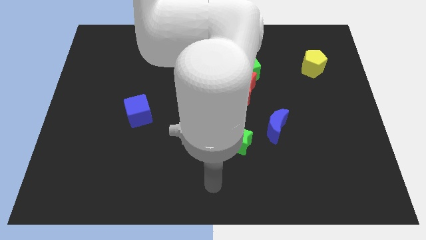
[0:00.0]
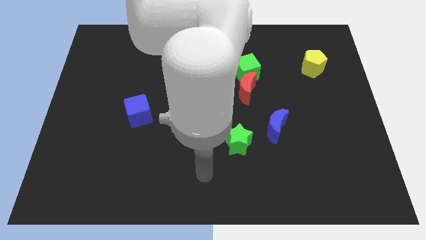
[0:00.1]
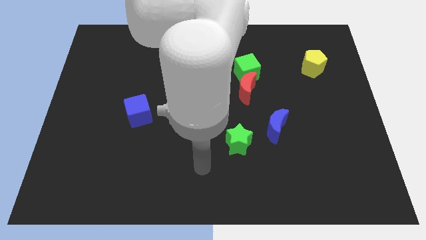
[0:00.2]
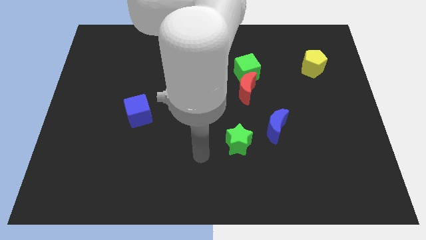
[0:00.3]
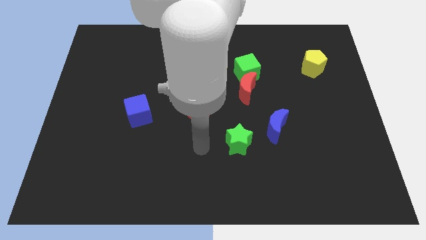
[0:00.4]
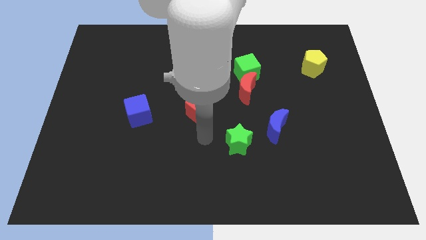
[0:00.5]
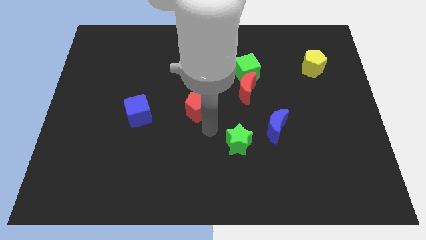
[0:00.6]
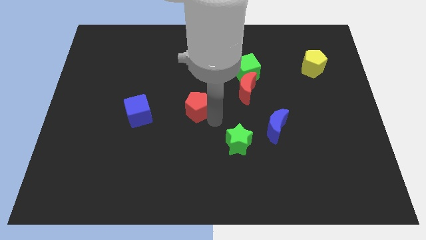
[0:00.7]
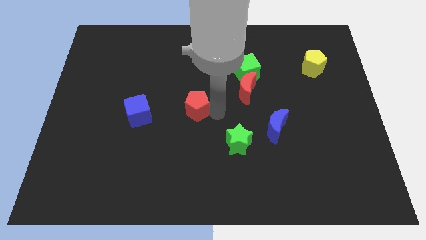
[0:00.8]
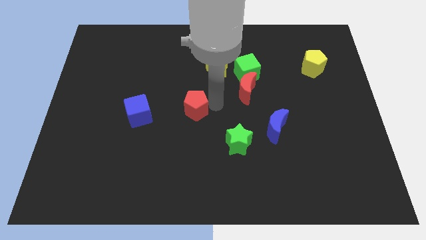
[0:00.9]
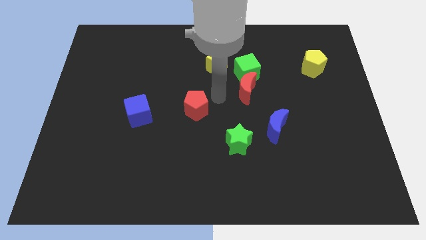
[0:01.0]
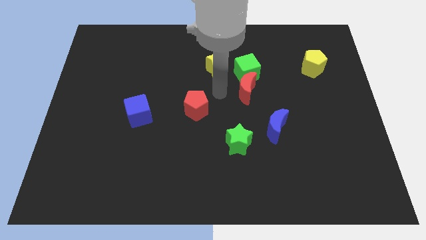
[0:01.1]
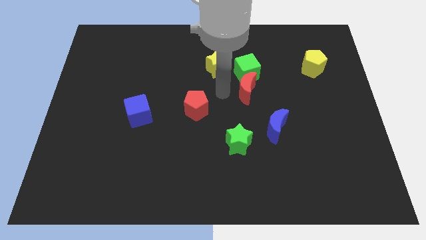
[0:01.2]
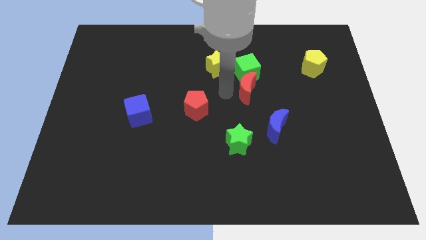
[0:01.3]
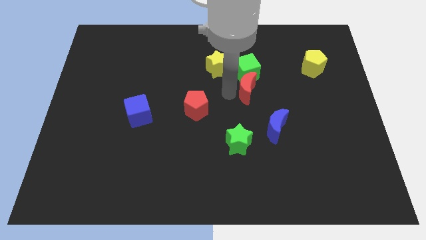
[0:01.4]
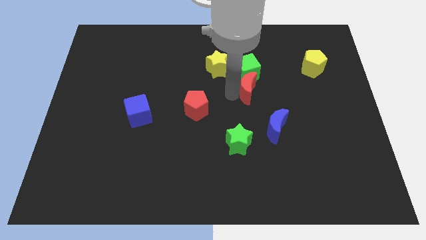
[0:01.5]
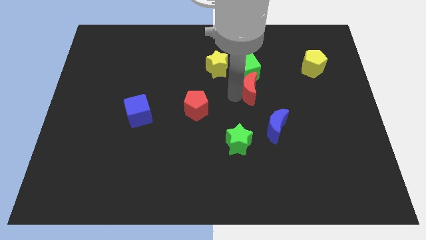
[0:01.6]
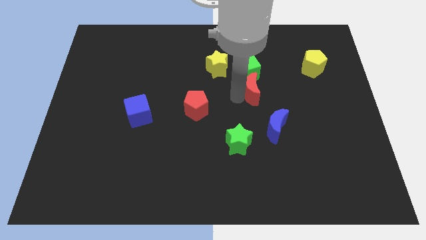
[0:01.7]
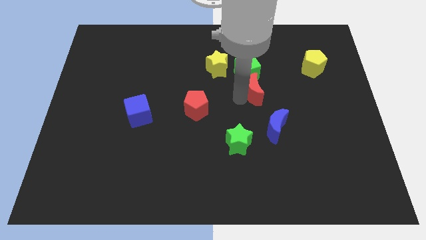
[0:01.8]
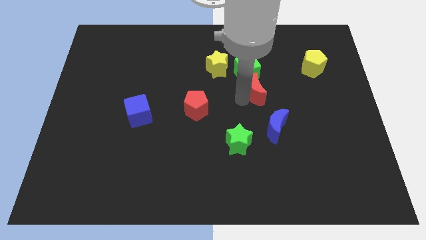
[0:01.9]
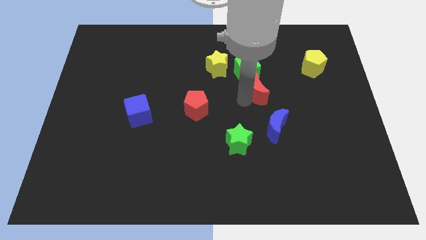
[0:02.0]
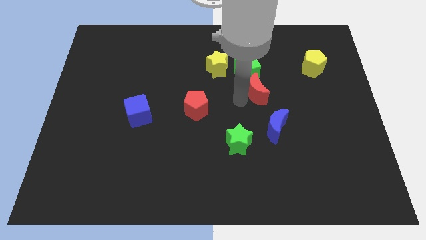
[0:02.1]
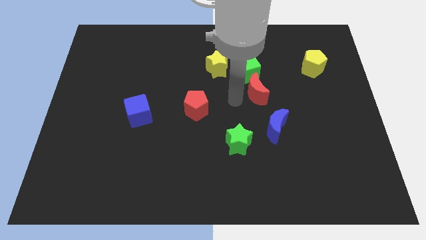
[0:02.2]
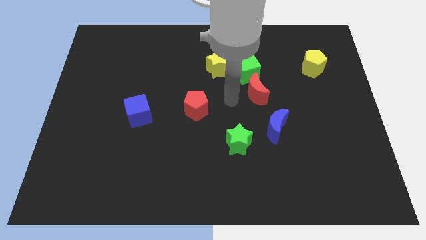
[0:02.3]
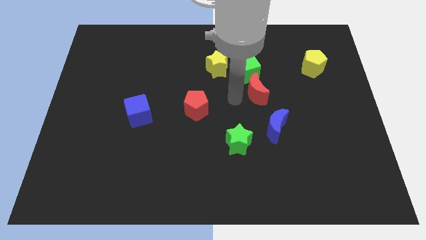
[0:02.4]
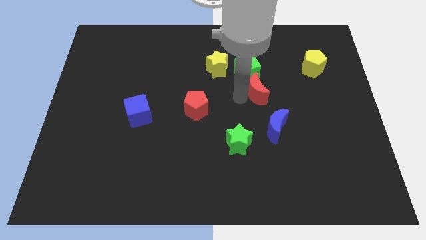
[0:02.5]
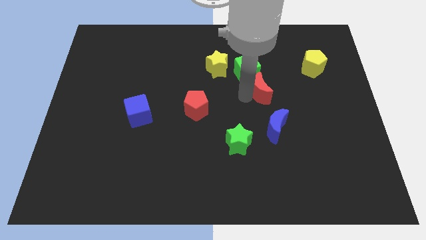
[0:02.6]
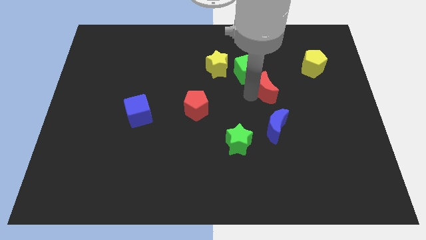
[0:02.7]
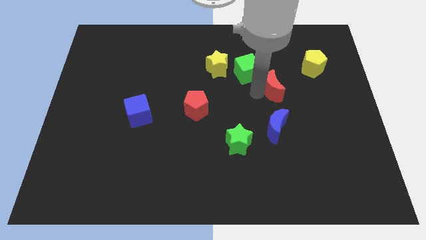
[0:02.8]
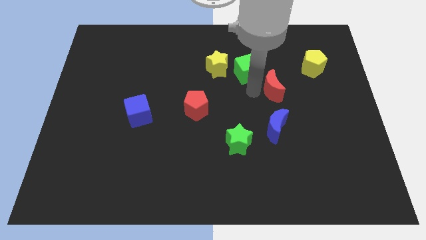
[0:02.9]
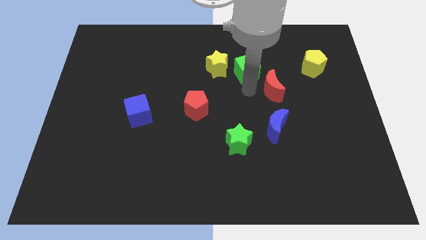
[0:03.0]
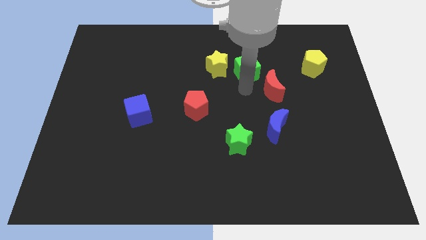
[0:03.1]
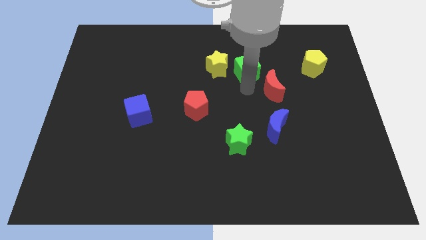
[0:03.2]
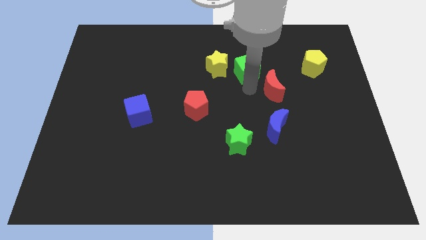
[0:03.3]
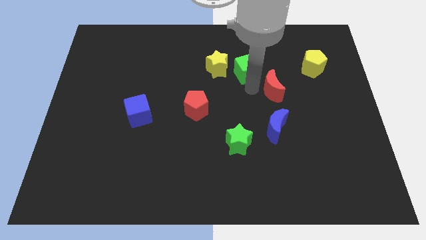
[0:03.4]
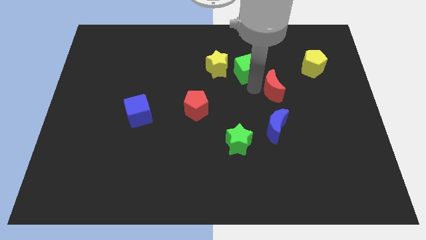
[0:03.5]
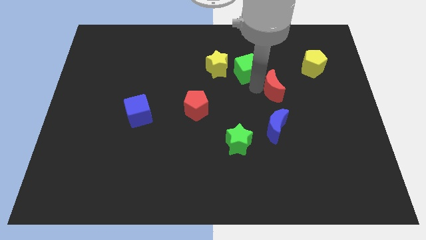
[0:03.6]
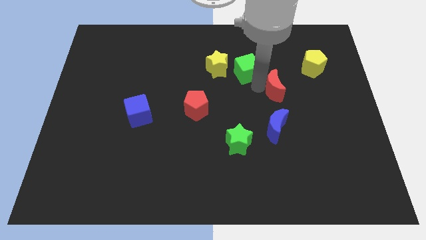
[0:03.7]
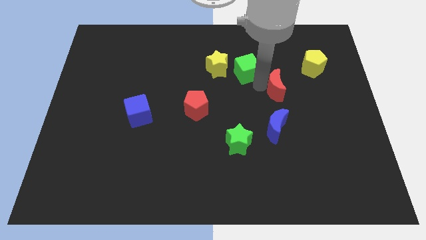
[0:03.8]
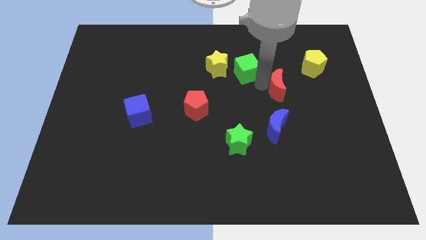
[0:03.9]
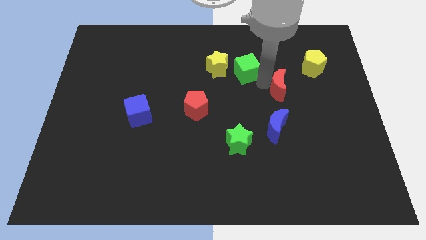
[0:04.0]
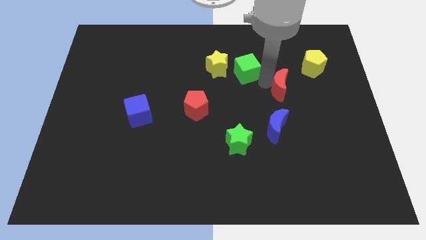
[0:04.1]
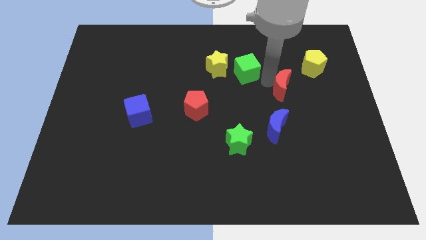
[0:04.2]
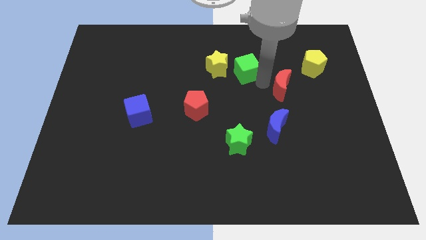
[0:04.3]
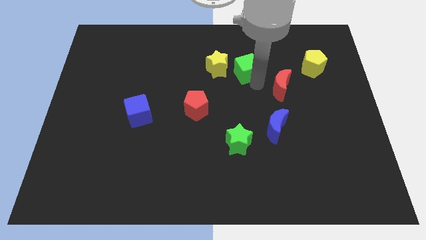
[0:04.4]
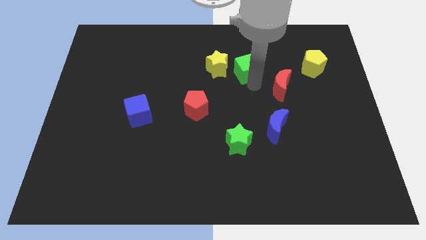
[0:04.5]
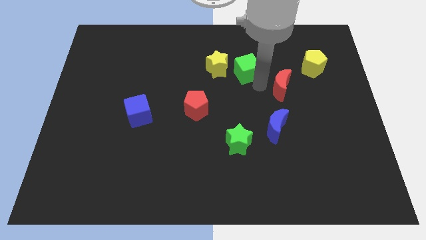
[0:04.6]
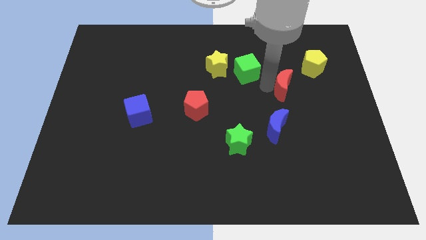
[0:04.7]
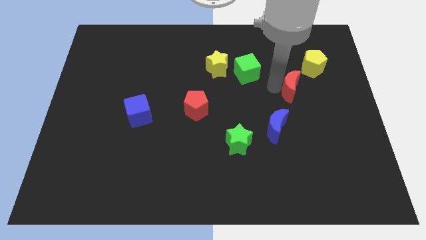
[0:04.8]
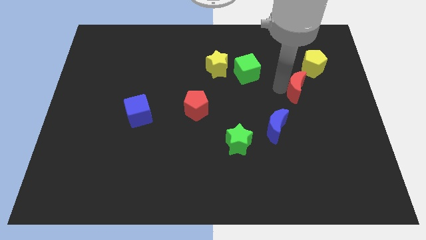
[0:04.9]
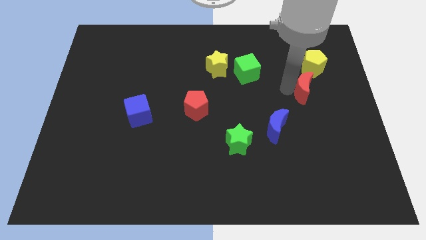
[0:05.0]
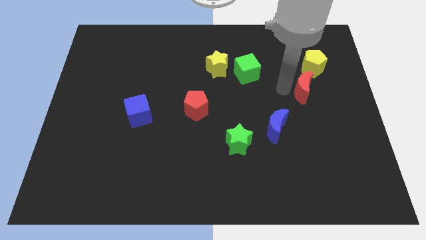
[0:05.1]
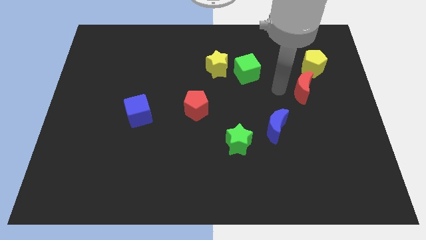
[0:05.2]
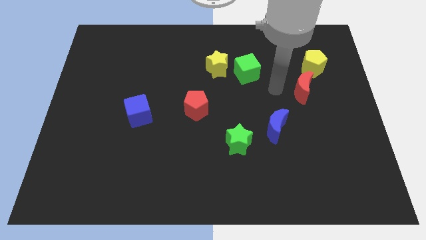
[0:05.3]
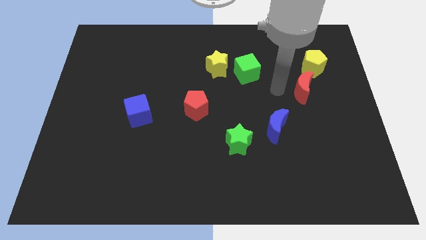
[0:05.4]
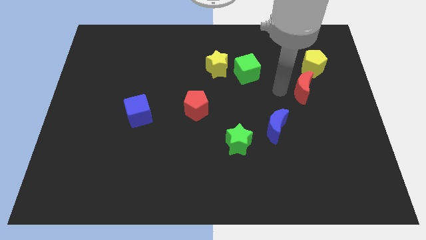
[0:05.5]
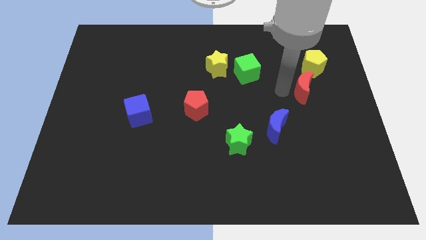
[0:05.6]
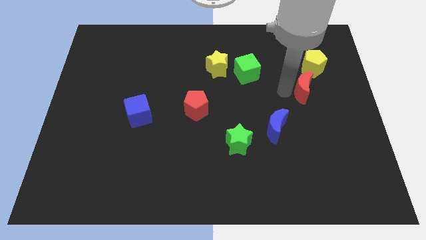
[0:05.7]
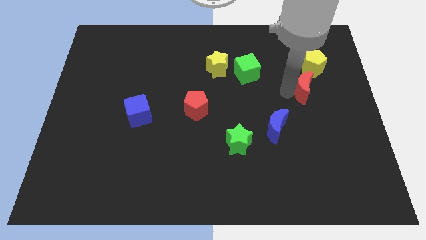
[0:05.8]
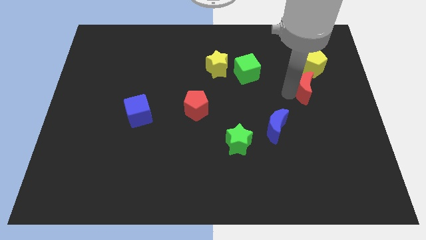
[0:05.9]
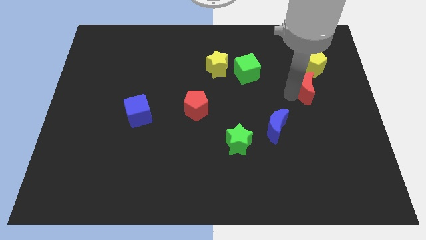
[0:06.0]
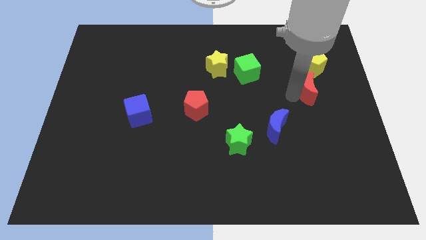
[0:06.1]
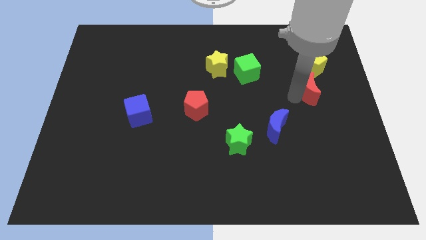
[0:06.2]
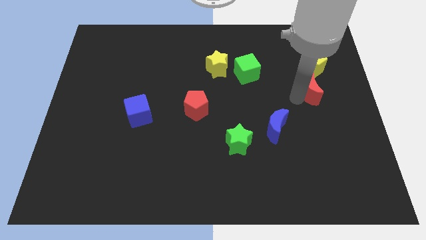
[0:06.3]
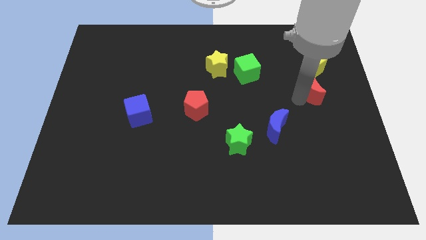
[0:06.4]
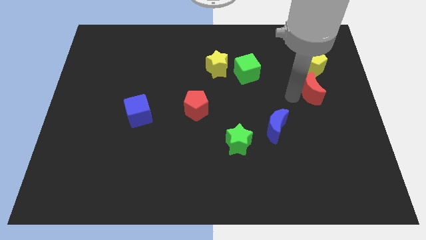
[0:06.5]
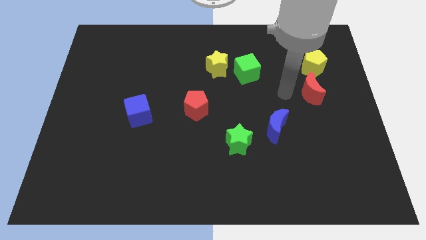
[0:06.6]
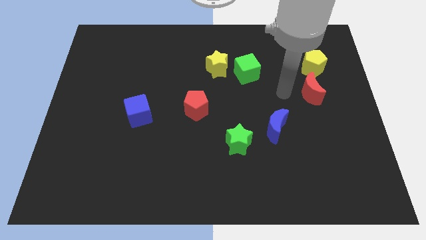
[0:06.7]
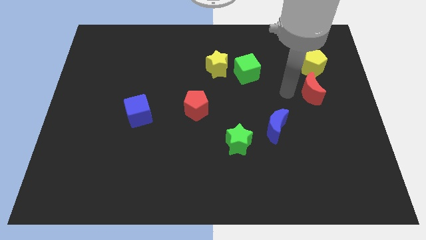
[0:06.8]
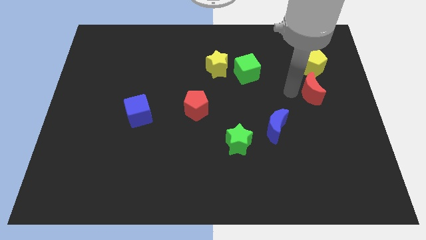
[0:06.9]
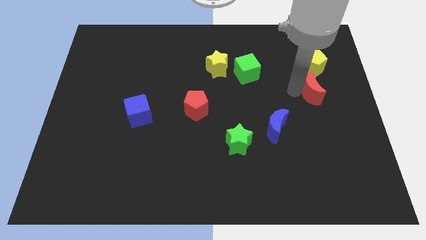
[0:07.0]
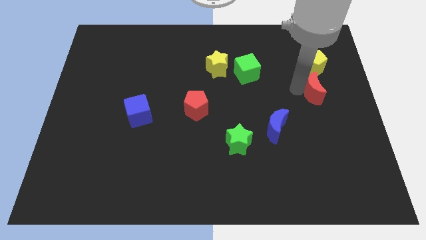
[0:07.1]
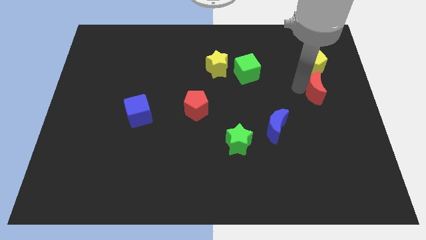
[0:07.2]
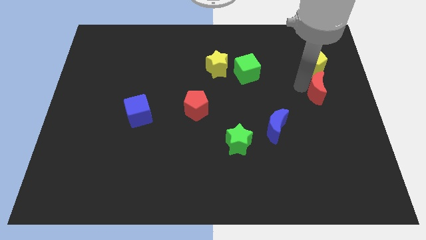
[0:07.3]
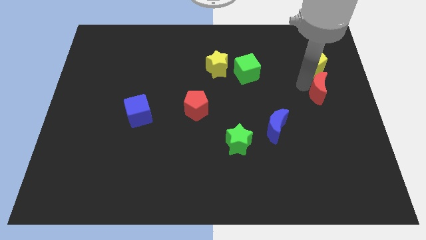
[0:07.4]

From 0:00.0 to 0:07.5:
put the red moon to the right side
